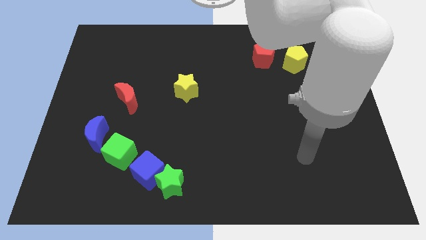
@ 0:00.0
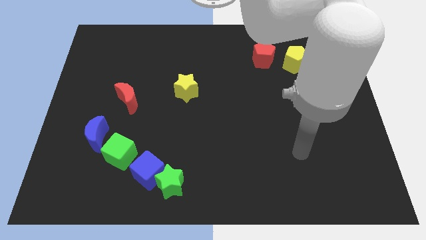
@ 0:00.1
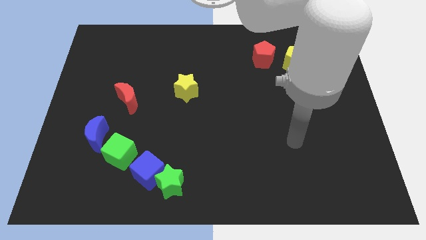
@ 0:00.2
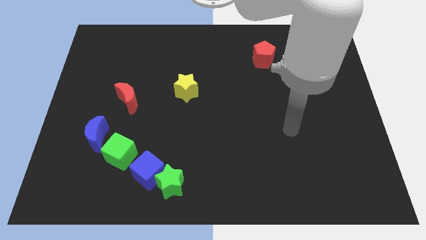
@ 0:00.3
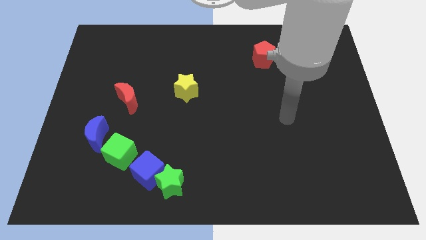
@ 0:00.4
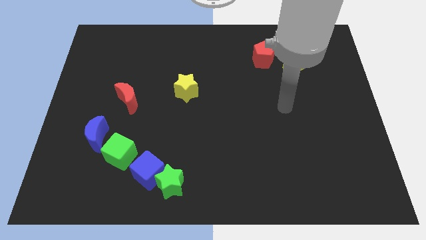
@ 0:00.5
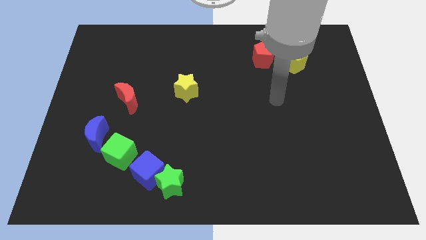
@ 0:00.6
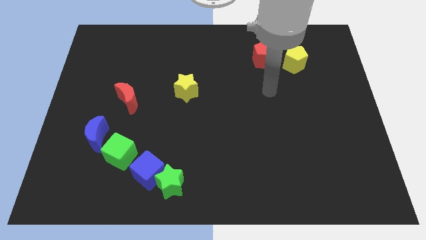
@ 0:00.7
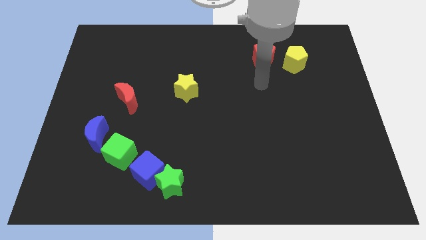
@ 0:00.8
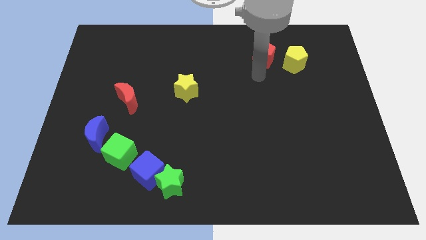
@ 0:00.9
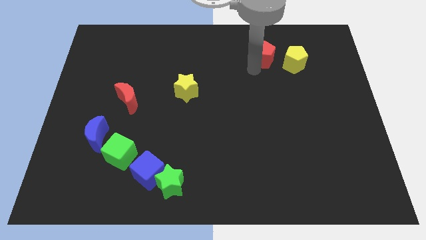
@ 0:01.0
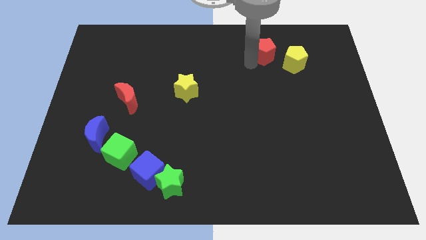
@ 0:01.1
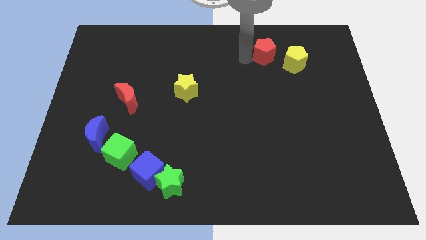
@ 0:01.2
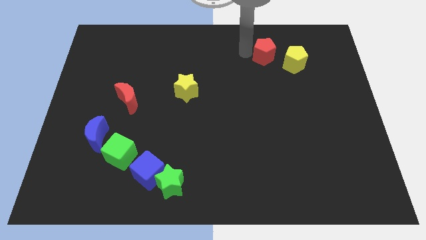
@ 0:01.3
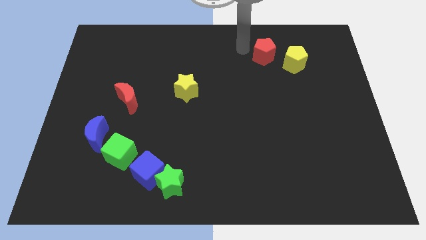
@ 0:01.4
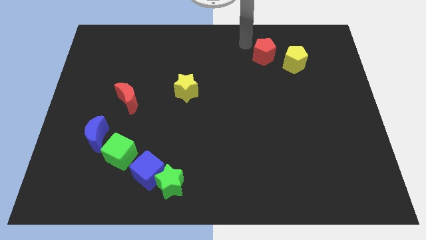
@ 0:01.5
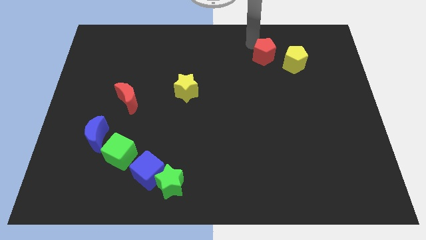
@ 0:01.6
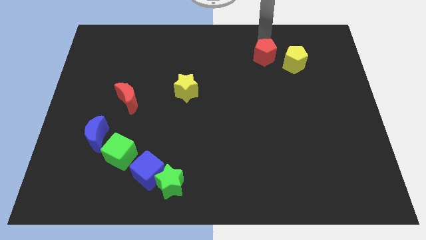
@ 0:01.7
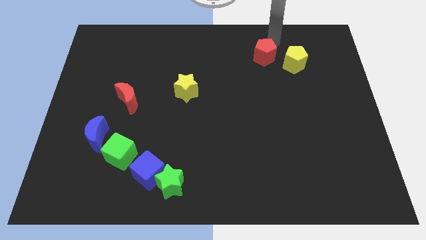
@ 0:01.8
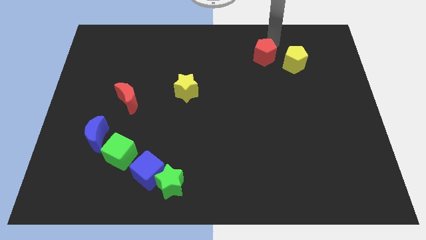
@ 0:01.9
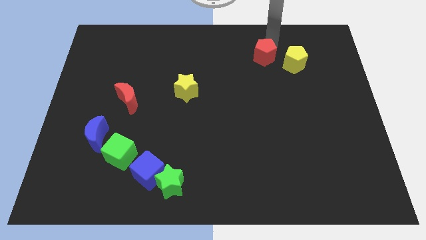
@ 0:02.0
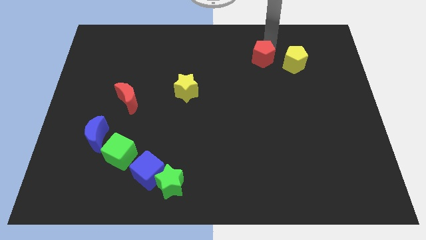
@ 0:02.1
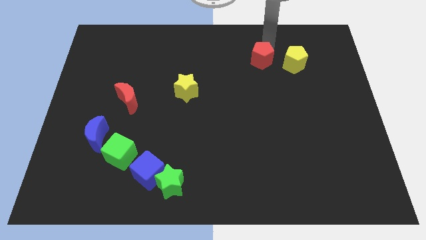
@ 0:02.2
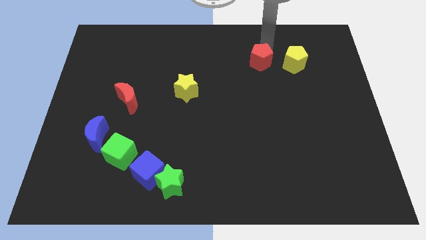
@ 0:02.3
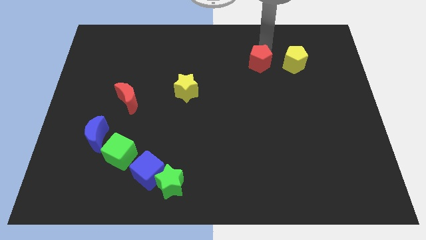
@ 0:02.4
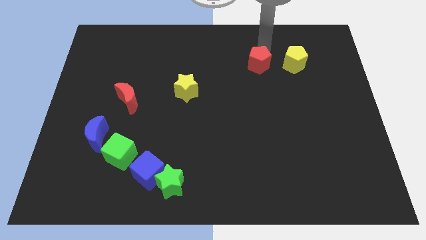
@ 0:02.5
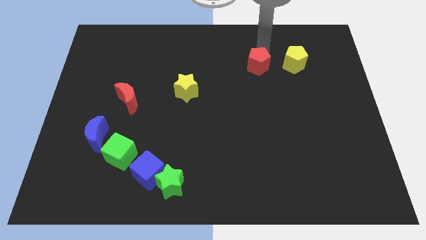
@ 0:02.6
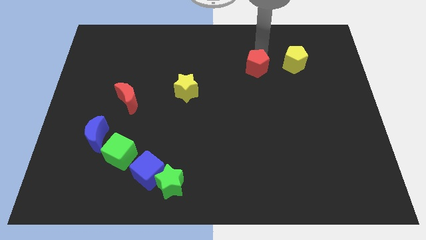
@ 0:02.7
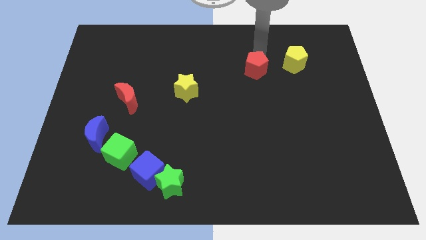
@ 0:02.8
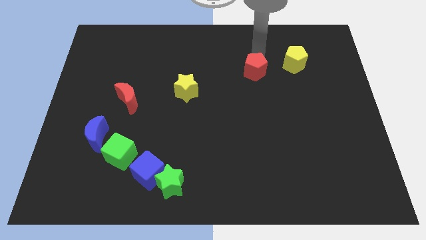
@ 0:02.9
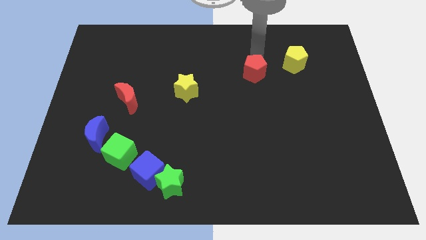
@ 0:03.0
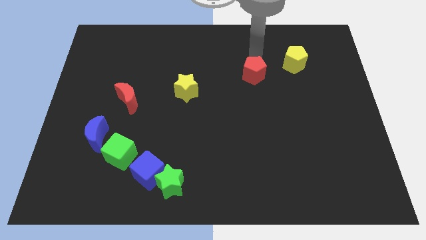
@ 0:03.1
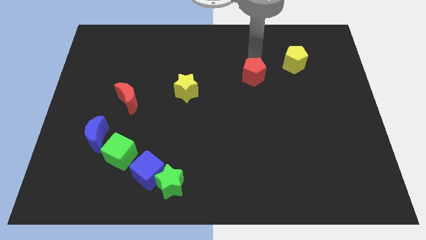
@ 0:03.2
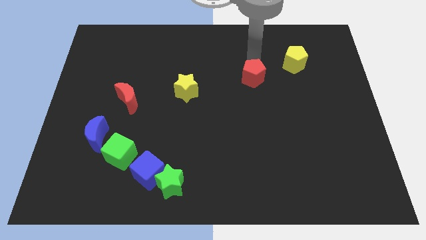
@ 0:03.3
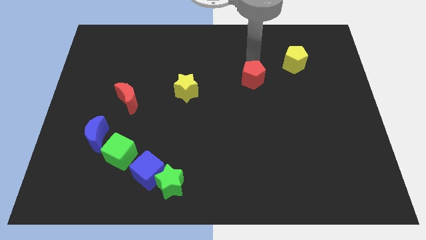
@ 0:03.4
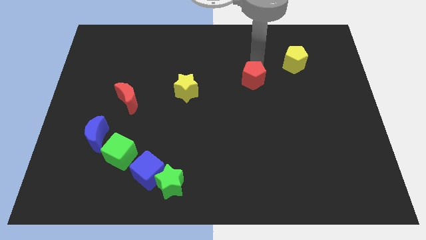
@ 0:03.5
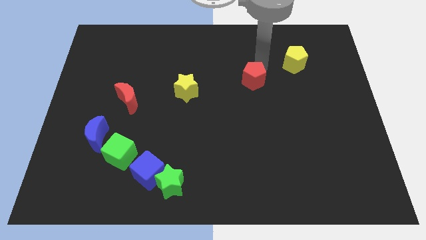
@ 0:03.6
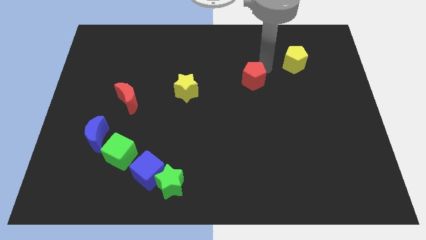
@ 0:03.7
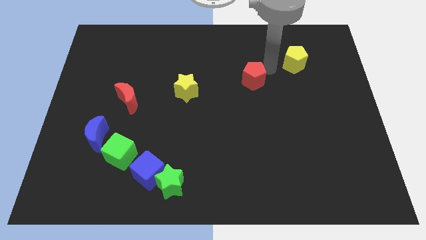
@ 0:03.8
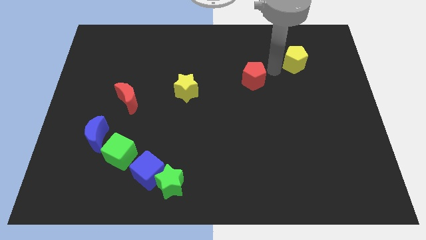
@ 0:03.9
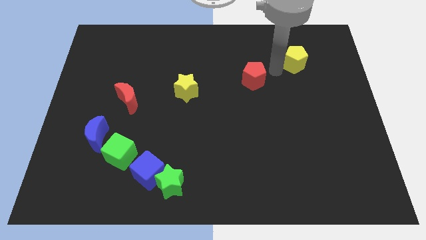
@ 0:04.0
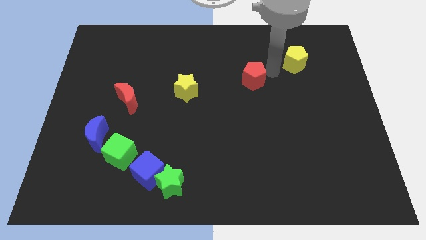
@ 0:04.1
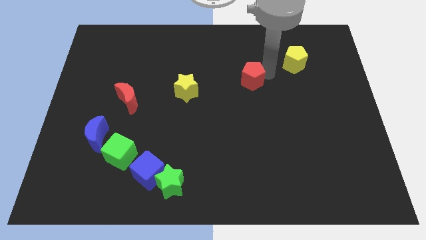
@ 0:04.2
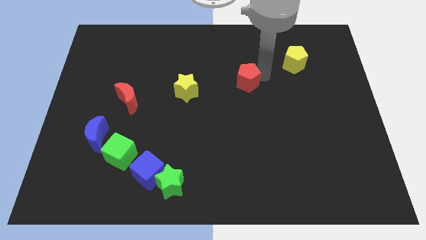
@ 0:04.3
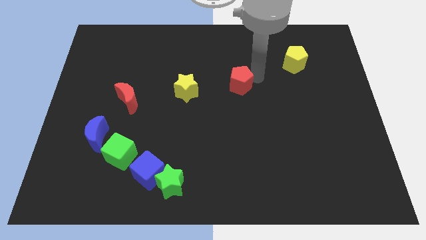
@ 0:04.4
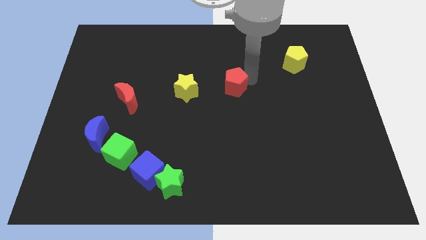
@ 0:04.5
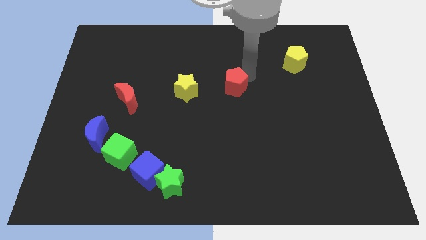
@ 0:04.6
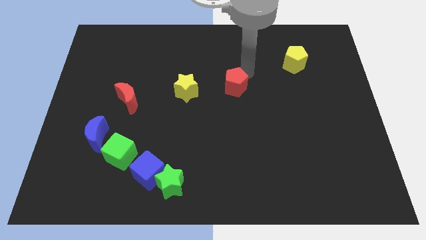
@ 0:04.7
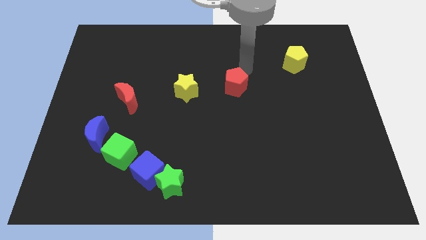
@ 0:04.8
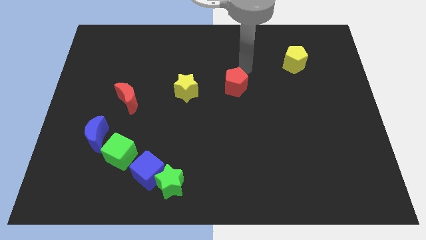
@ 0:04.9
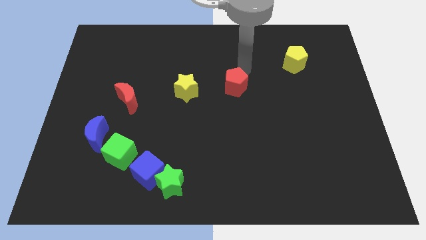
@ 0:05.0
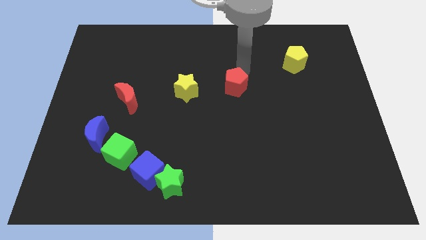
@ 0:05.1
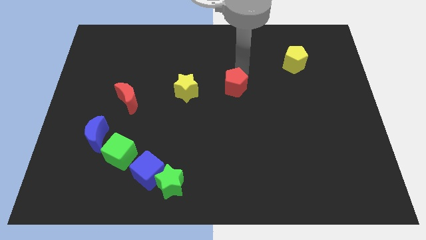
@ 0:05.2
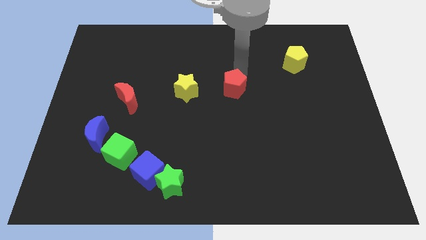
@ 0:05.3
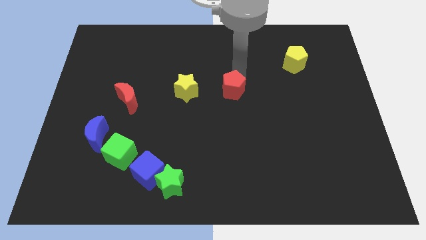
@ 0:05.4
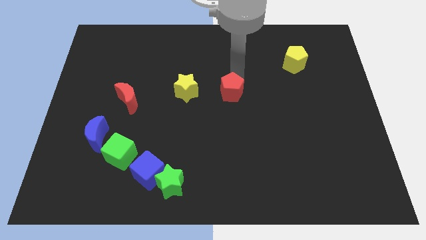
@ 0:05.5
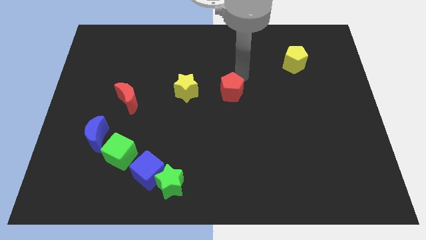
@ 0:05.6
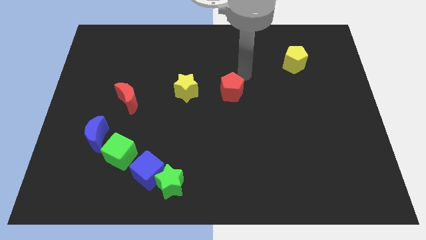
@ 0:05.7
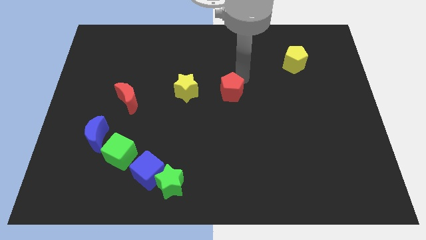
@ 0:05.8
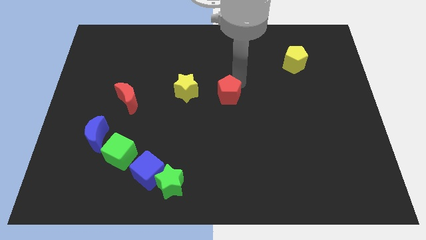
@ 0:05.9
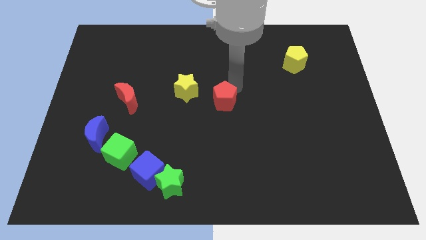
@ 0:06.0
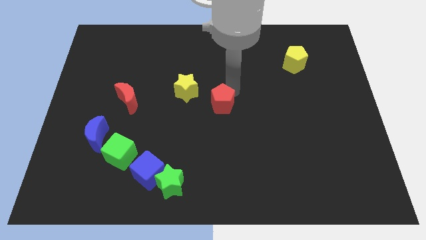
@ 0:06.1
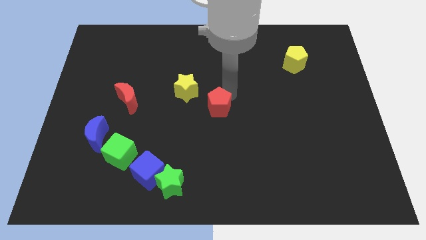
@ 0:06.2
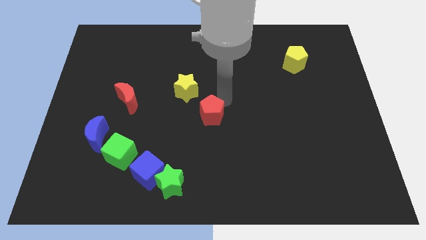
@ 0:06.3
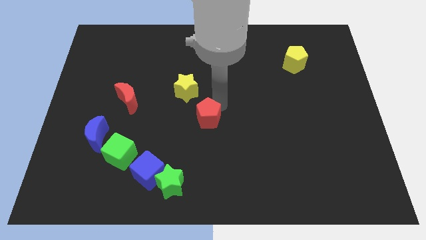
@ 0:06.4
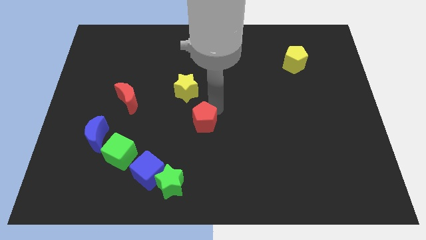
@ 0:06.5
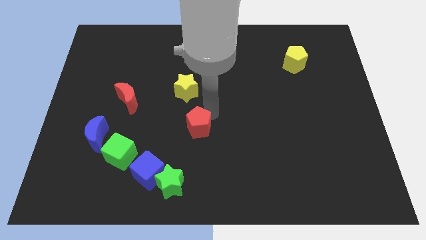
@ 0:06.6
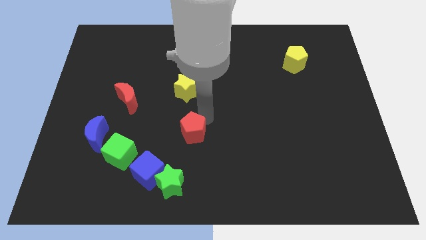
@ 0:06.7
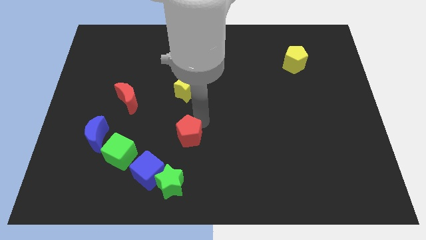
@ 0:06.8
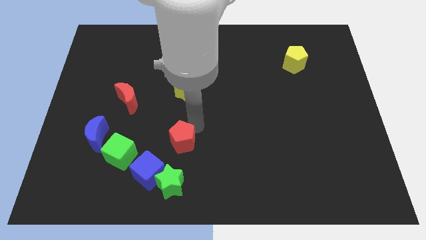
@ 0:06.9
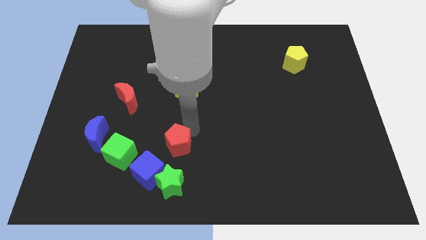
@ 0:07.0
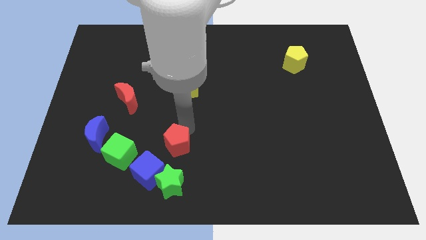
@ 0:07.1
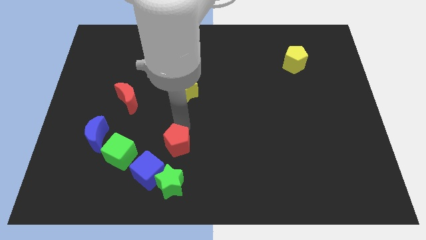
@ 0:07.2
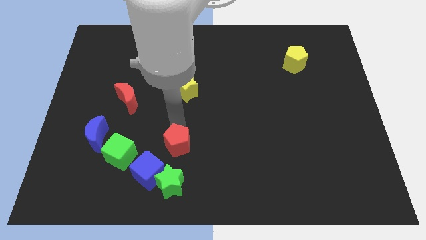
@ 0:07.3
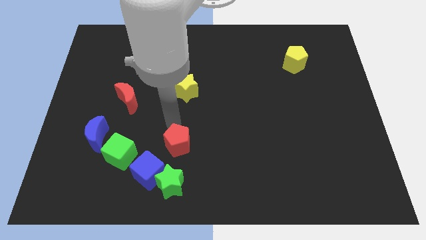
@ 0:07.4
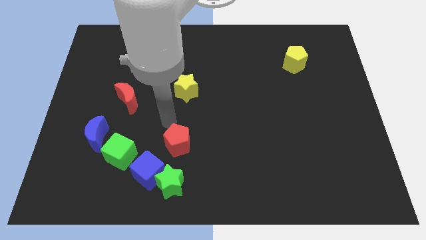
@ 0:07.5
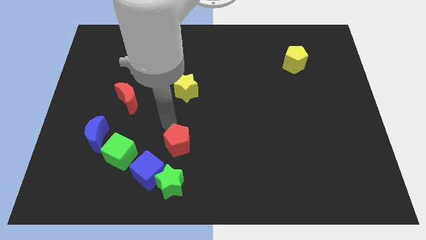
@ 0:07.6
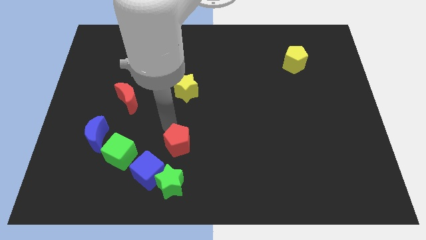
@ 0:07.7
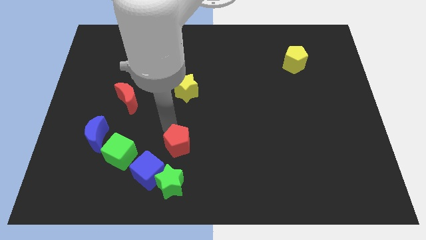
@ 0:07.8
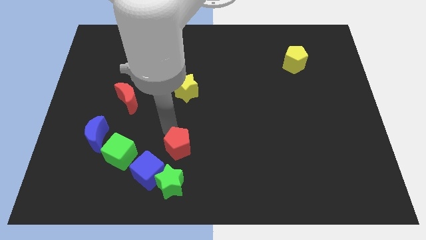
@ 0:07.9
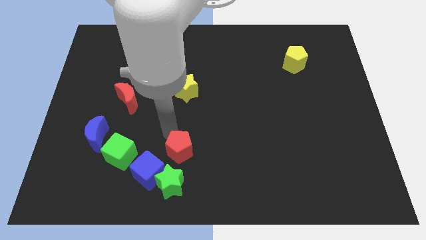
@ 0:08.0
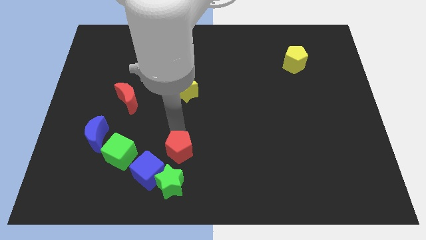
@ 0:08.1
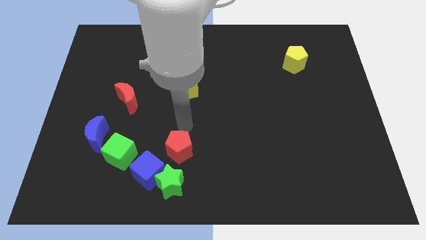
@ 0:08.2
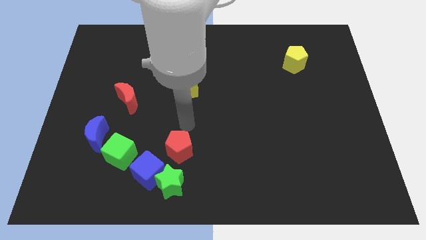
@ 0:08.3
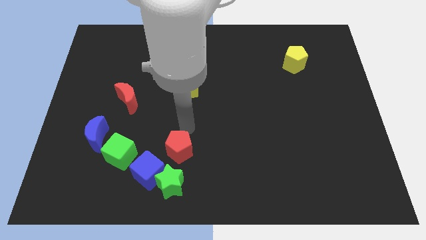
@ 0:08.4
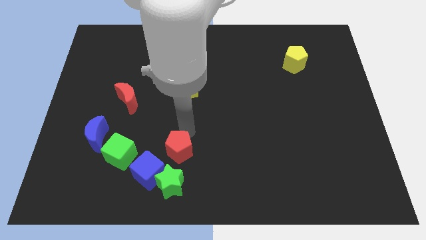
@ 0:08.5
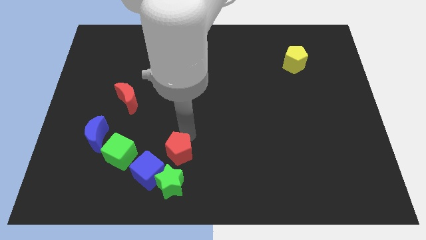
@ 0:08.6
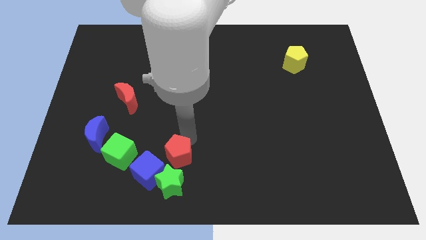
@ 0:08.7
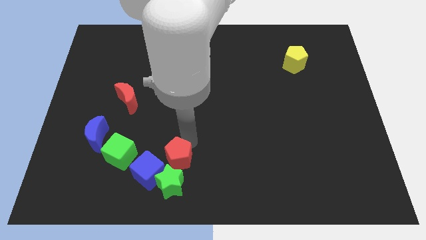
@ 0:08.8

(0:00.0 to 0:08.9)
put the red pentagon towards the green star
